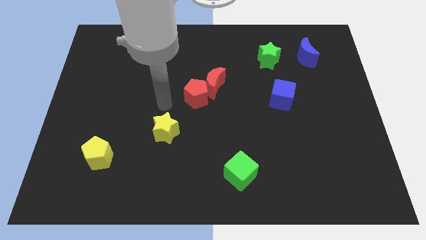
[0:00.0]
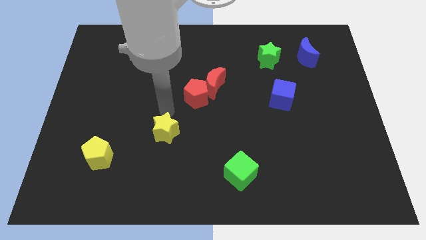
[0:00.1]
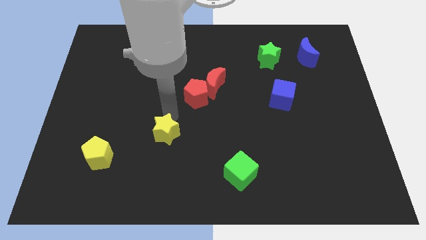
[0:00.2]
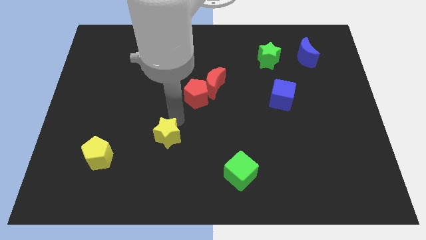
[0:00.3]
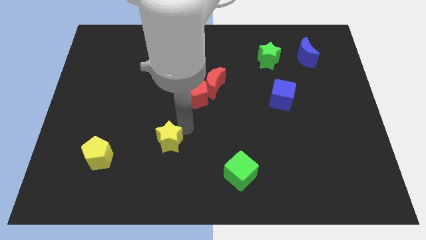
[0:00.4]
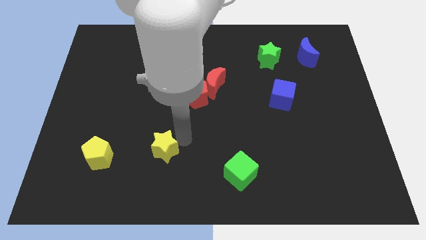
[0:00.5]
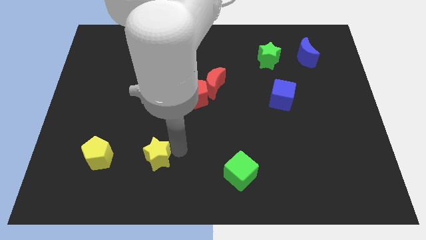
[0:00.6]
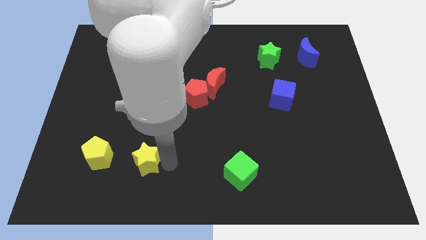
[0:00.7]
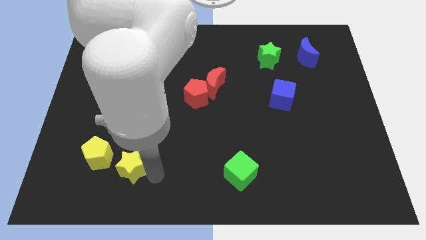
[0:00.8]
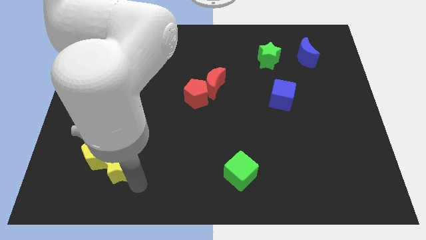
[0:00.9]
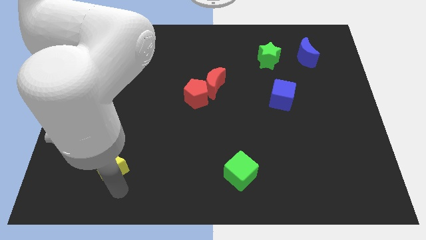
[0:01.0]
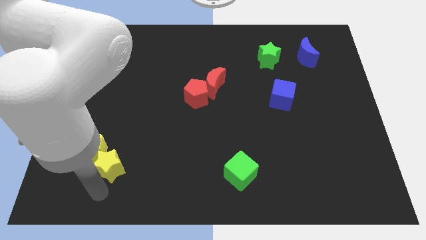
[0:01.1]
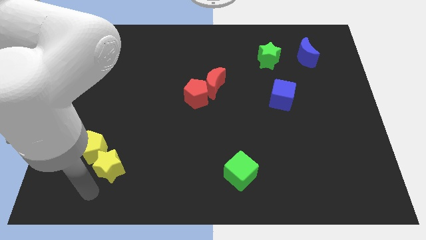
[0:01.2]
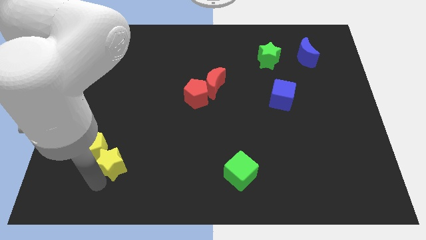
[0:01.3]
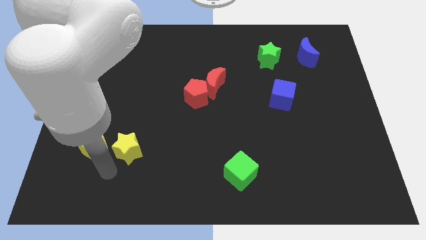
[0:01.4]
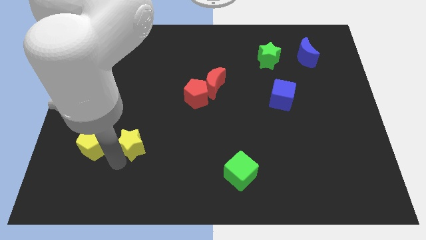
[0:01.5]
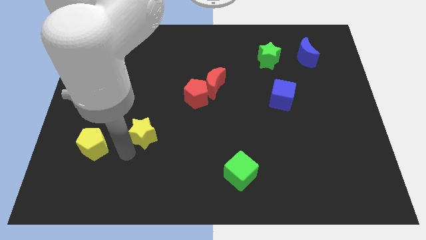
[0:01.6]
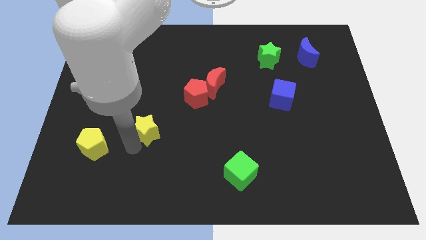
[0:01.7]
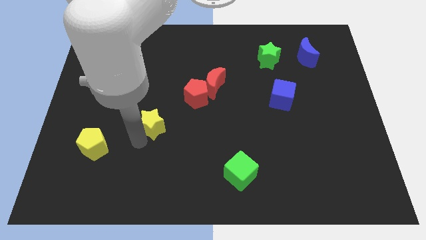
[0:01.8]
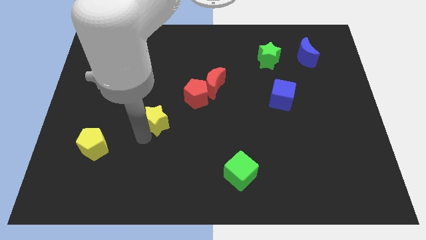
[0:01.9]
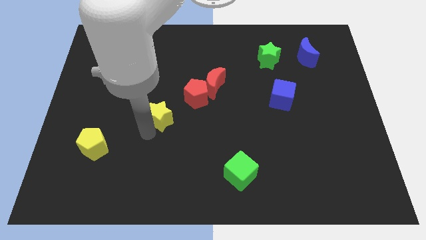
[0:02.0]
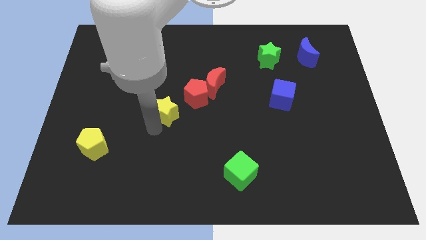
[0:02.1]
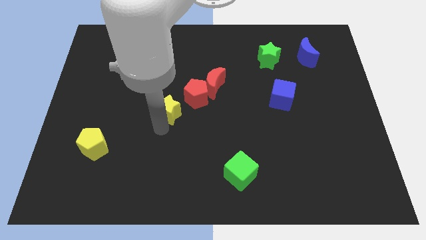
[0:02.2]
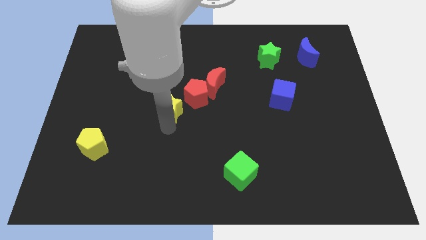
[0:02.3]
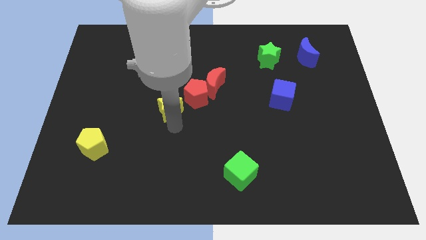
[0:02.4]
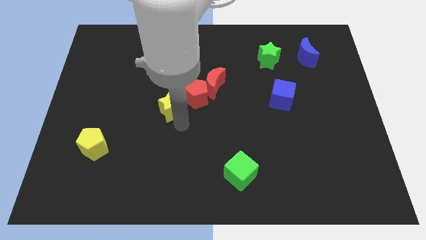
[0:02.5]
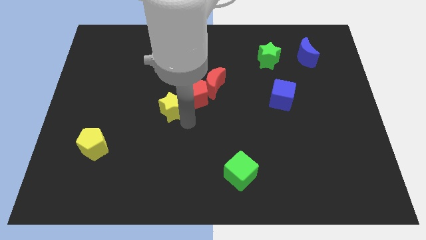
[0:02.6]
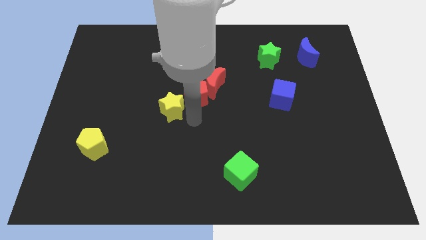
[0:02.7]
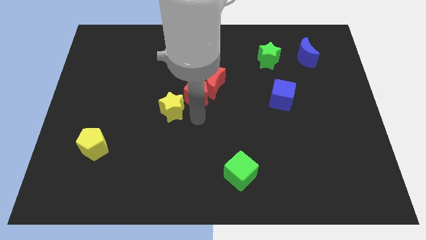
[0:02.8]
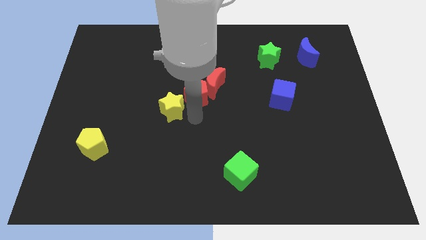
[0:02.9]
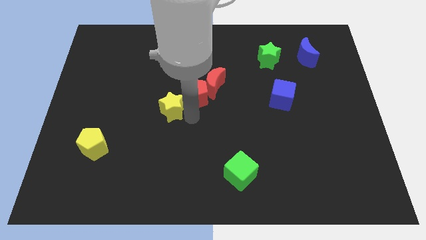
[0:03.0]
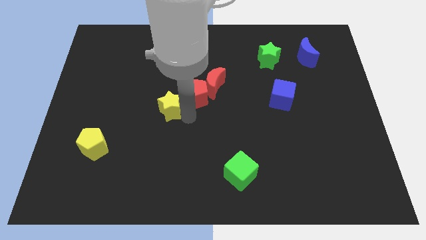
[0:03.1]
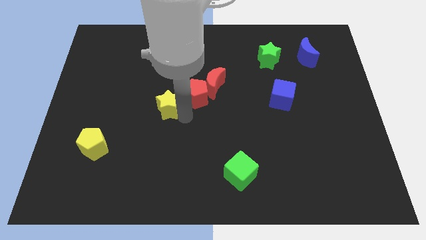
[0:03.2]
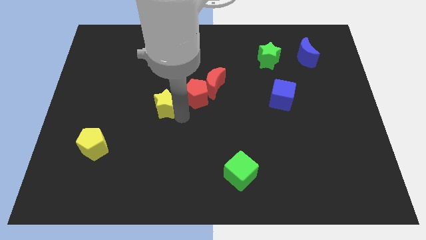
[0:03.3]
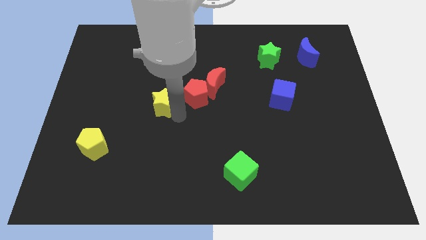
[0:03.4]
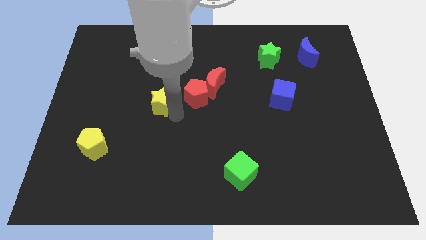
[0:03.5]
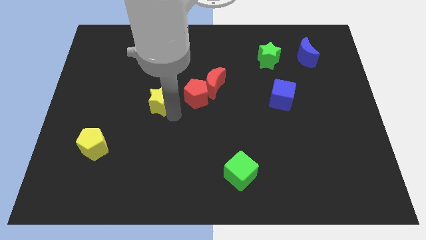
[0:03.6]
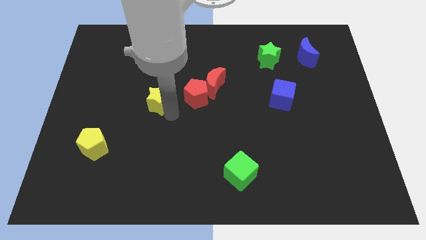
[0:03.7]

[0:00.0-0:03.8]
slightly slide the yellow star up and then to the left

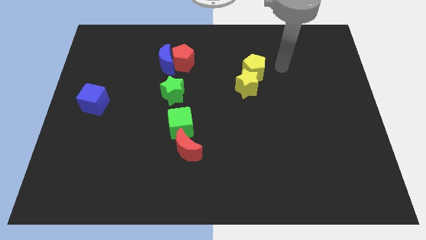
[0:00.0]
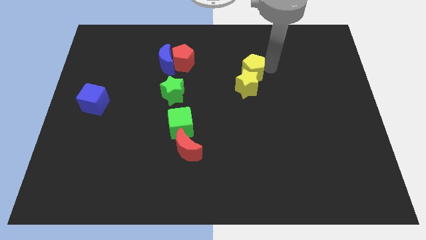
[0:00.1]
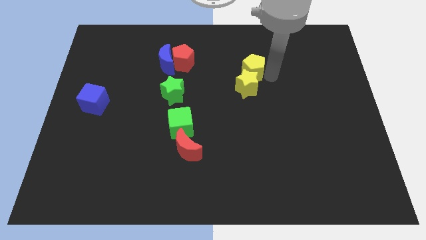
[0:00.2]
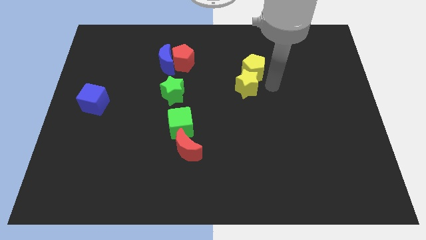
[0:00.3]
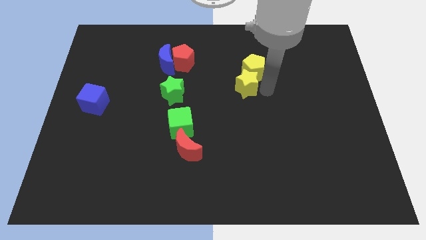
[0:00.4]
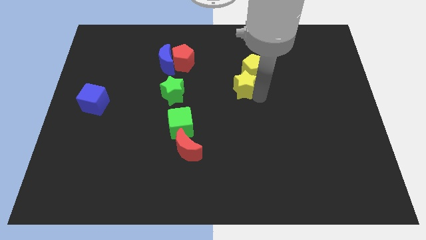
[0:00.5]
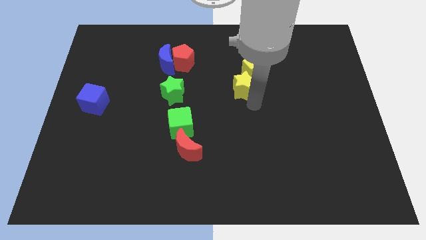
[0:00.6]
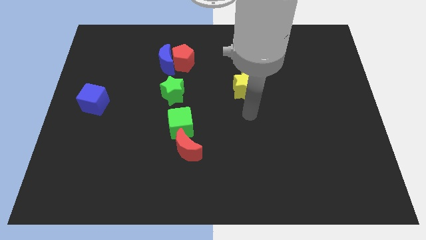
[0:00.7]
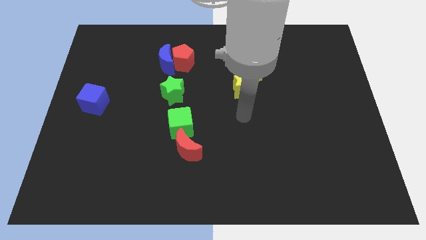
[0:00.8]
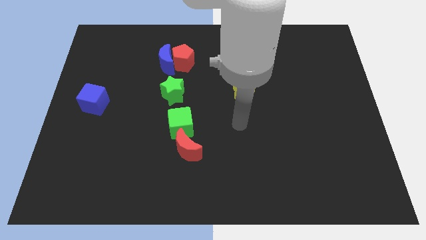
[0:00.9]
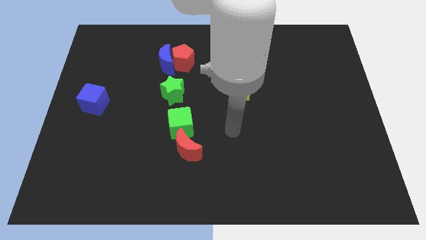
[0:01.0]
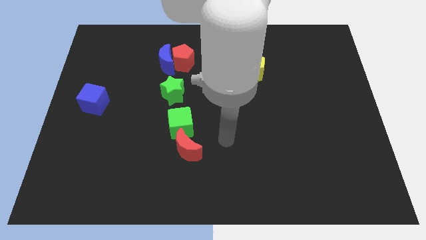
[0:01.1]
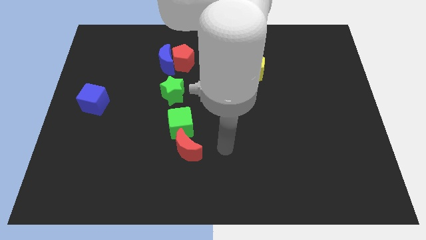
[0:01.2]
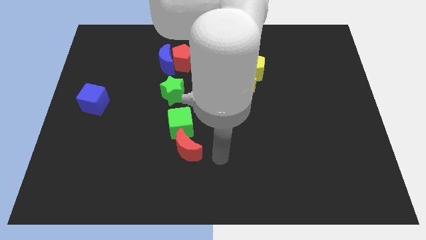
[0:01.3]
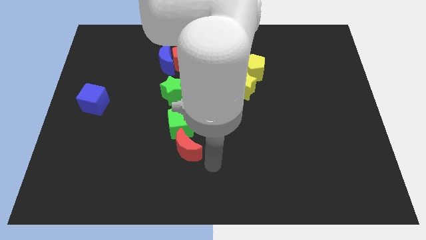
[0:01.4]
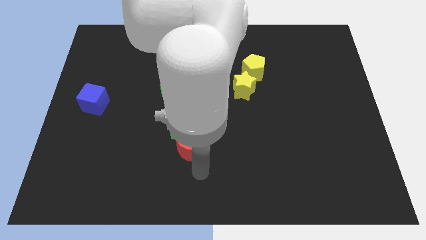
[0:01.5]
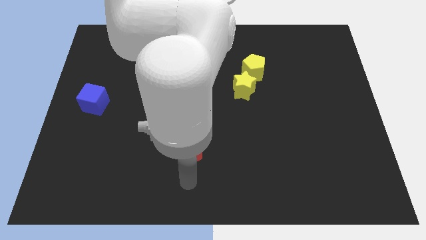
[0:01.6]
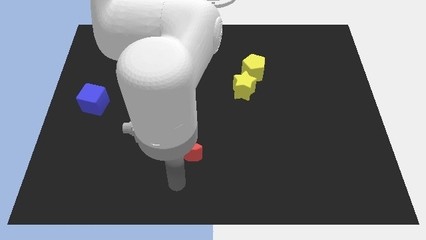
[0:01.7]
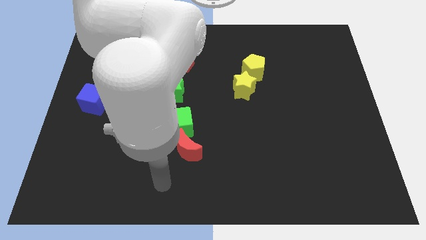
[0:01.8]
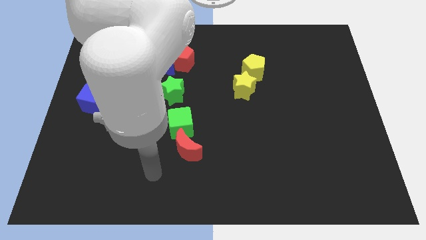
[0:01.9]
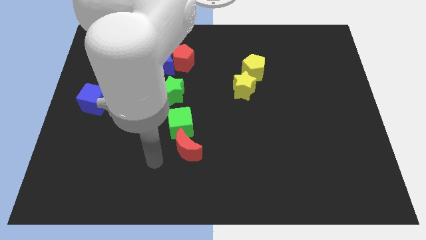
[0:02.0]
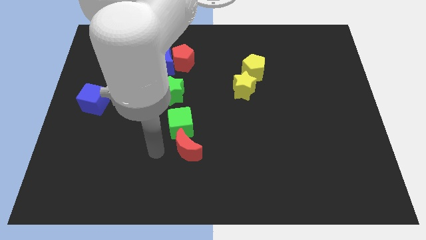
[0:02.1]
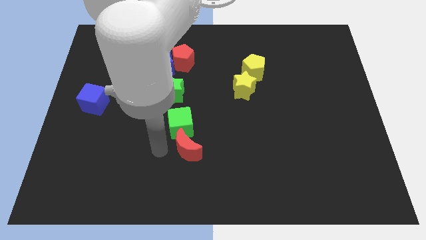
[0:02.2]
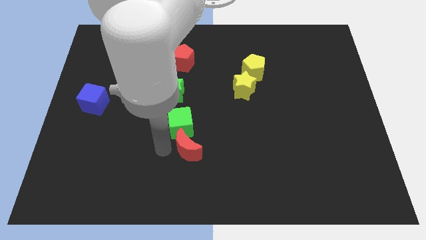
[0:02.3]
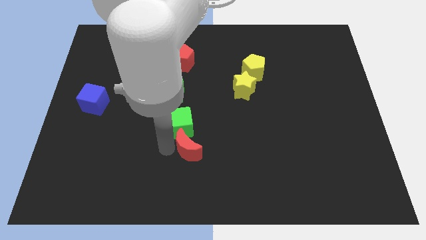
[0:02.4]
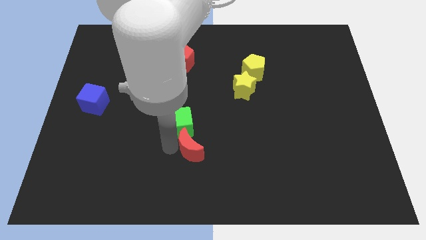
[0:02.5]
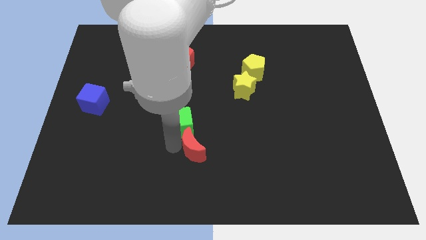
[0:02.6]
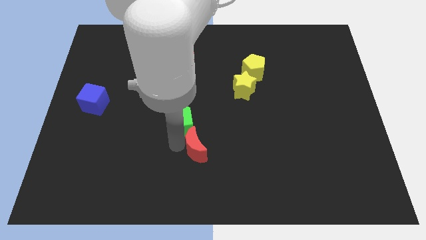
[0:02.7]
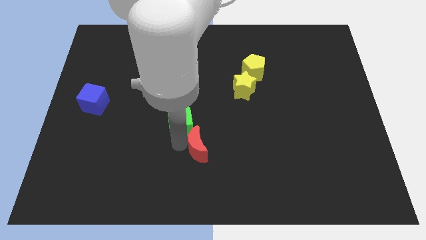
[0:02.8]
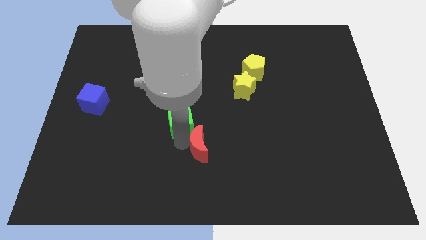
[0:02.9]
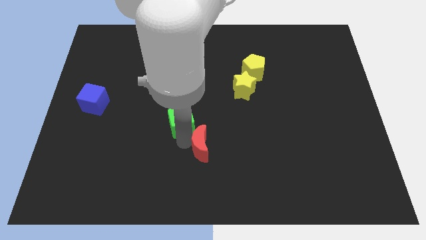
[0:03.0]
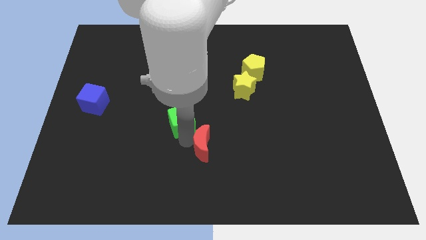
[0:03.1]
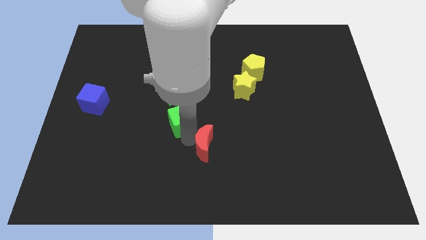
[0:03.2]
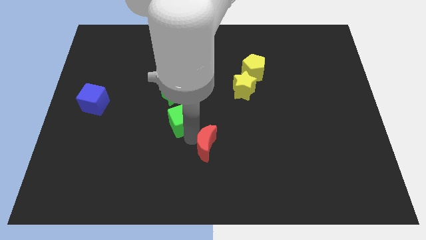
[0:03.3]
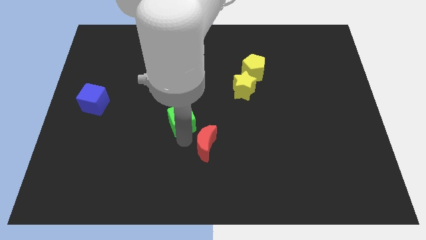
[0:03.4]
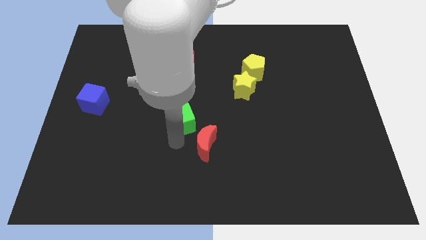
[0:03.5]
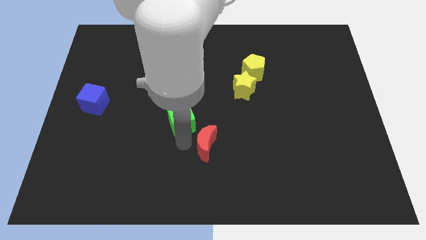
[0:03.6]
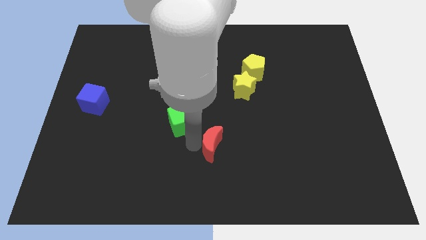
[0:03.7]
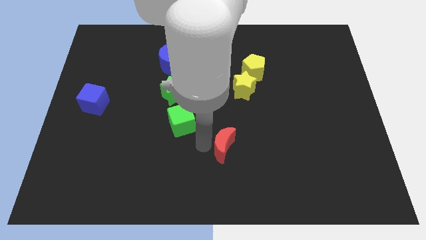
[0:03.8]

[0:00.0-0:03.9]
slightly move the red moon to the right
